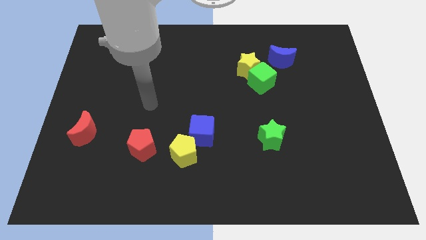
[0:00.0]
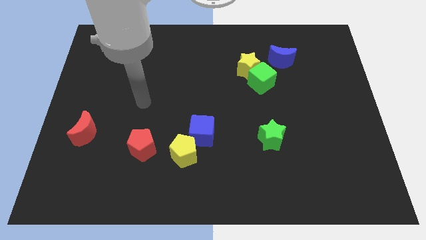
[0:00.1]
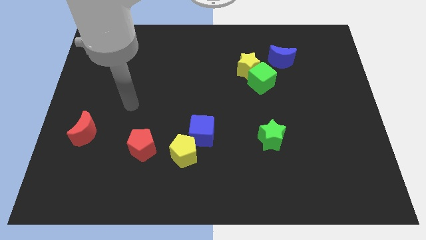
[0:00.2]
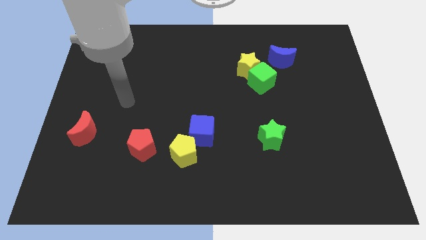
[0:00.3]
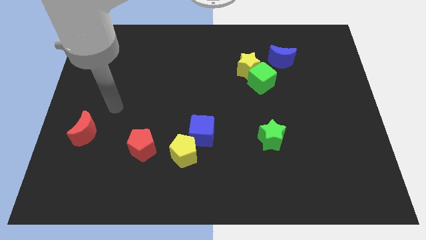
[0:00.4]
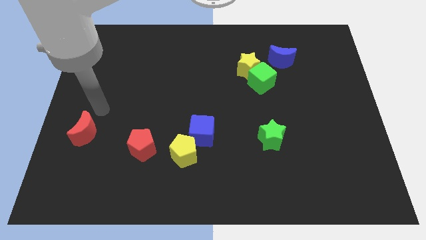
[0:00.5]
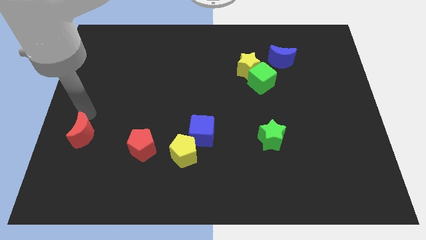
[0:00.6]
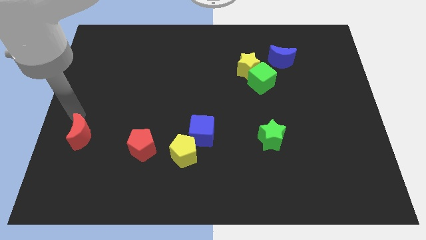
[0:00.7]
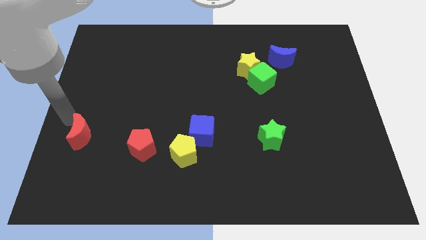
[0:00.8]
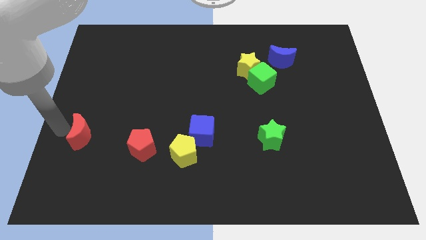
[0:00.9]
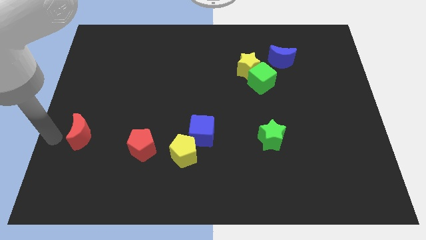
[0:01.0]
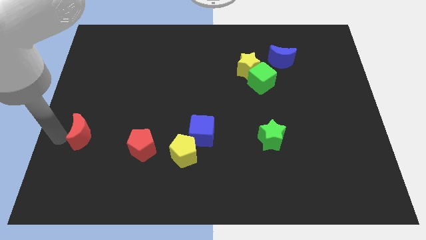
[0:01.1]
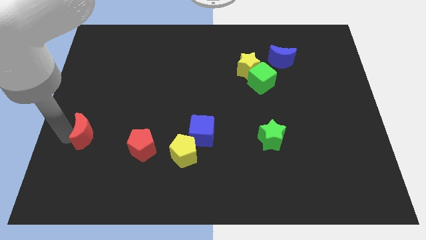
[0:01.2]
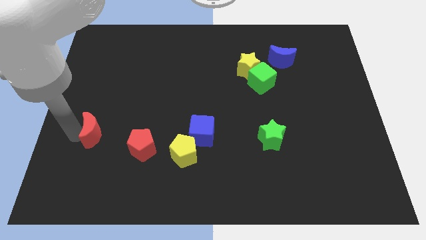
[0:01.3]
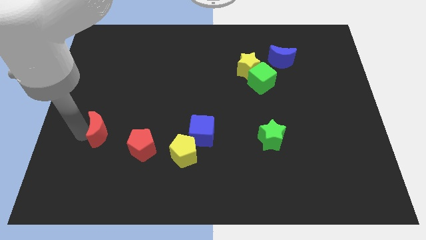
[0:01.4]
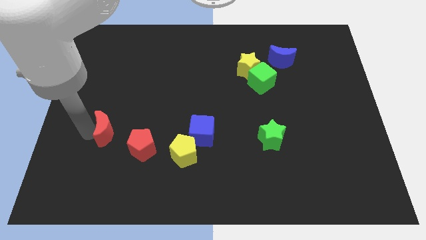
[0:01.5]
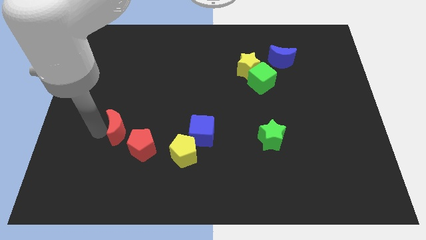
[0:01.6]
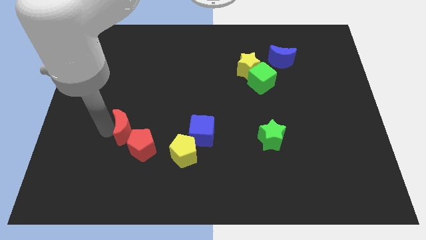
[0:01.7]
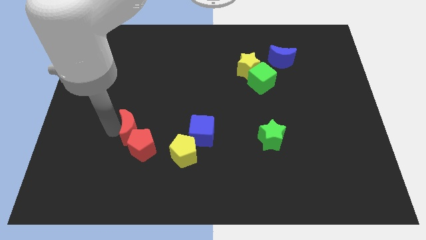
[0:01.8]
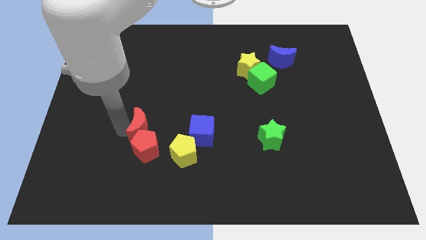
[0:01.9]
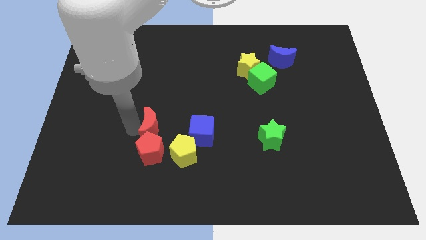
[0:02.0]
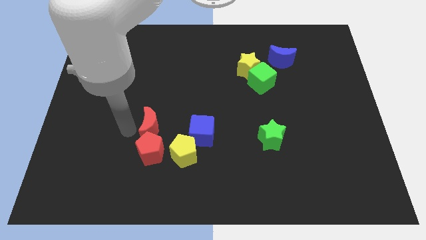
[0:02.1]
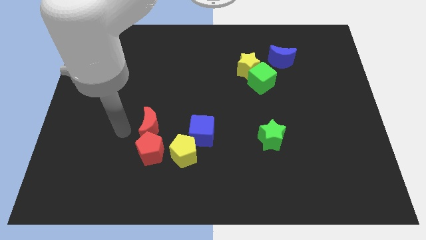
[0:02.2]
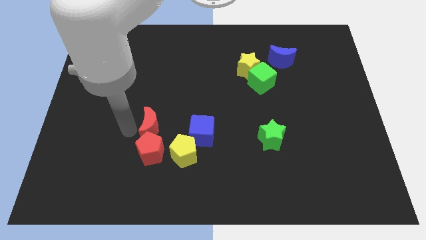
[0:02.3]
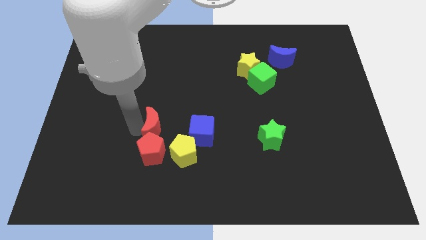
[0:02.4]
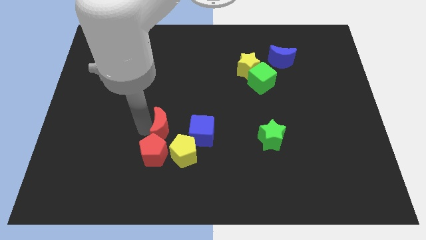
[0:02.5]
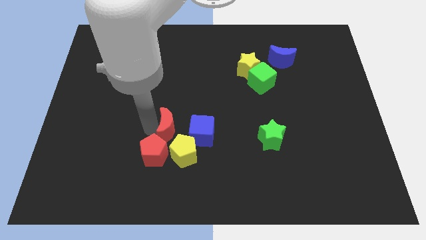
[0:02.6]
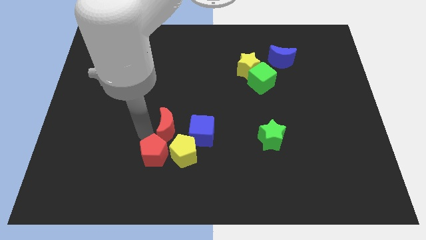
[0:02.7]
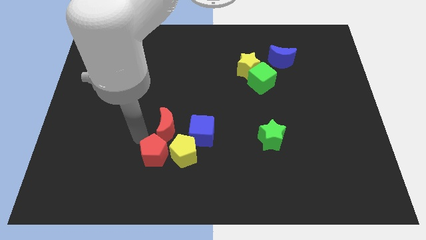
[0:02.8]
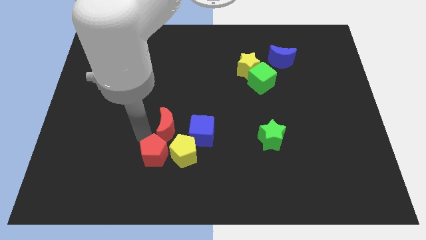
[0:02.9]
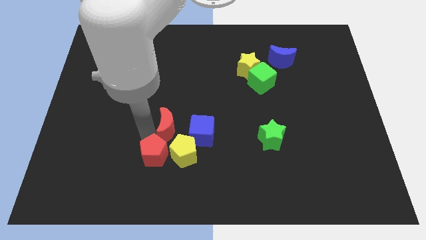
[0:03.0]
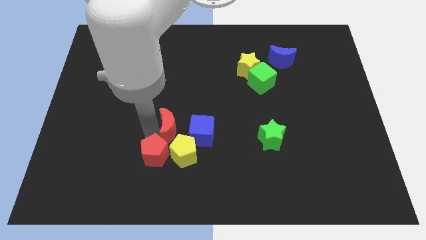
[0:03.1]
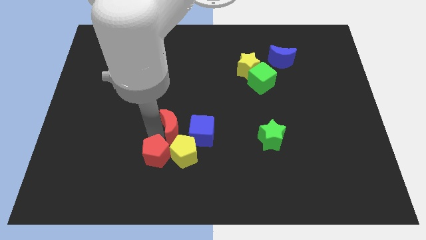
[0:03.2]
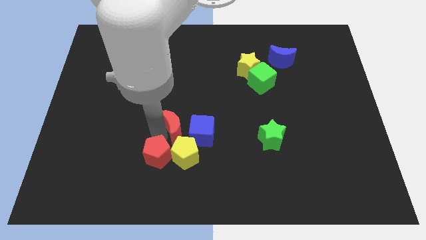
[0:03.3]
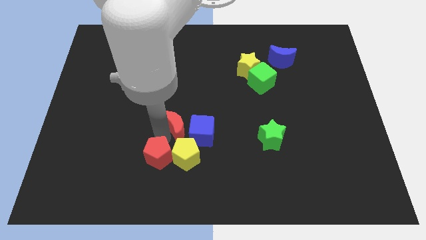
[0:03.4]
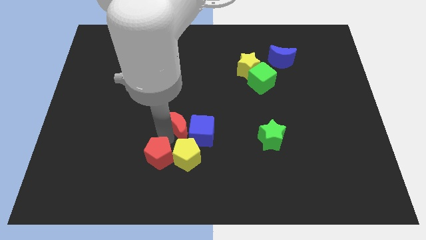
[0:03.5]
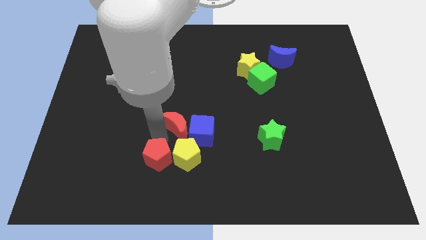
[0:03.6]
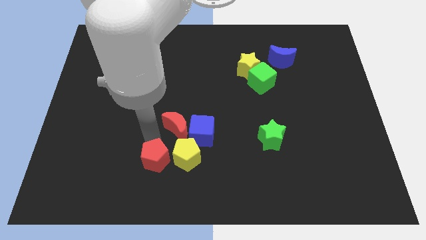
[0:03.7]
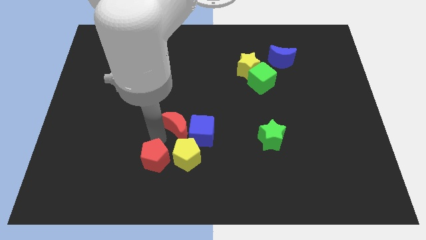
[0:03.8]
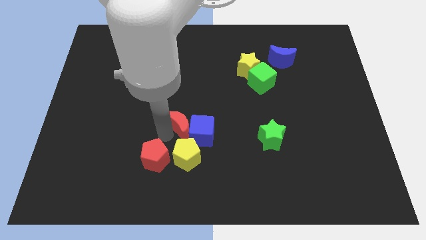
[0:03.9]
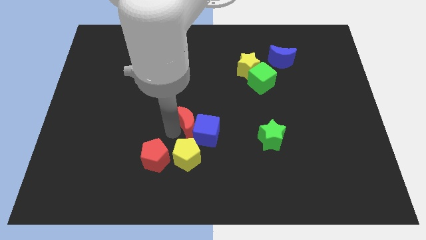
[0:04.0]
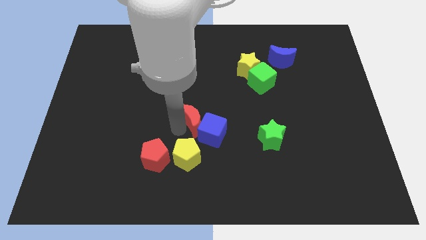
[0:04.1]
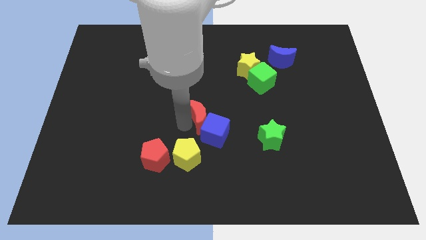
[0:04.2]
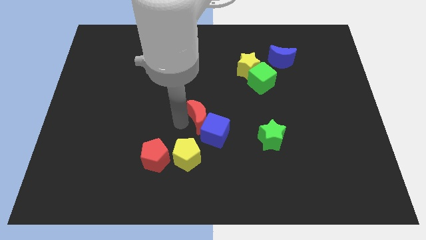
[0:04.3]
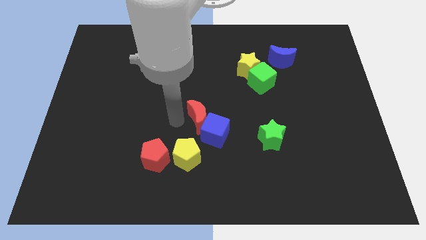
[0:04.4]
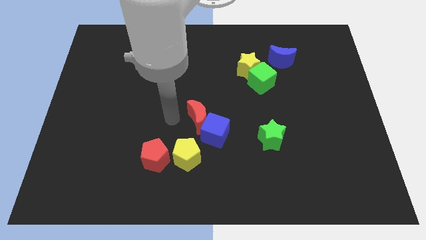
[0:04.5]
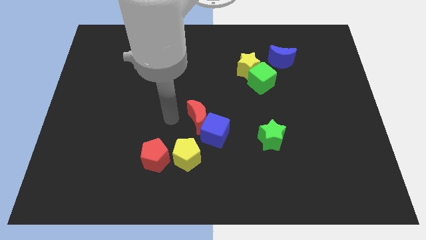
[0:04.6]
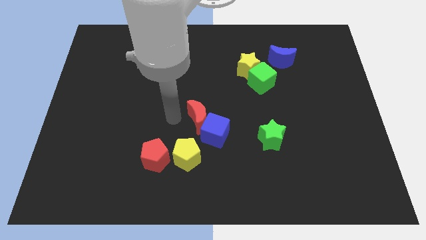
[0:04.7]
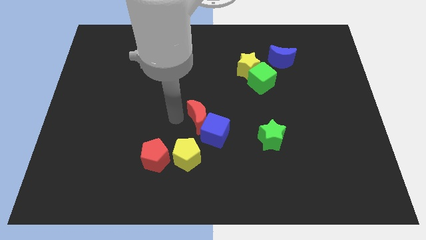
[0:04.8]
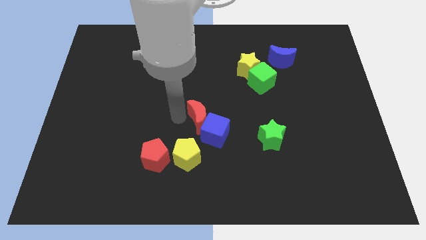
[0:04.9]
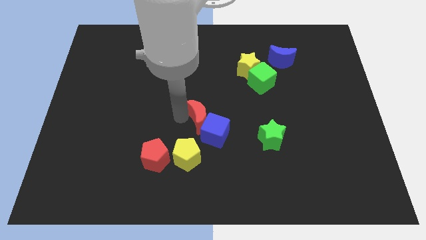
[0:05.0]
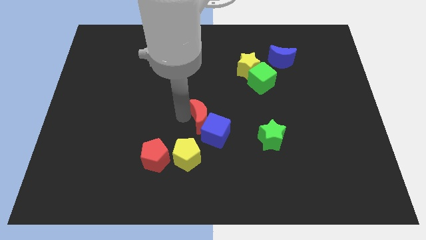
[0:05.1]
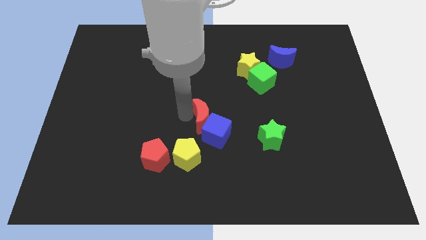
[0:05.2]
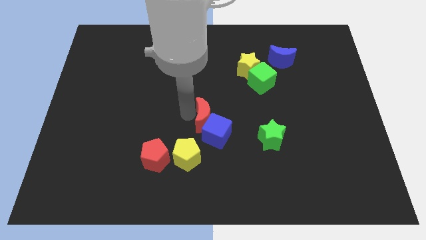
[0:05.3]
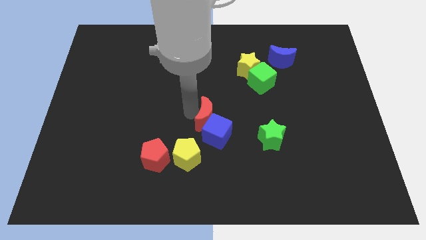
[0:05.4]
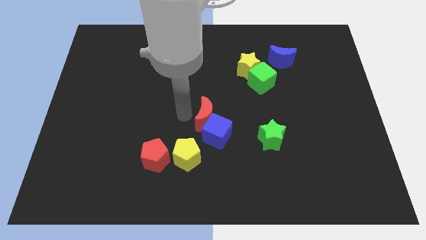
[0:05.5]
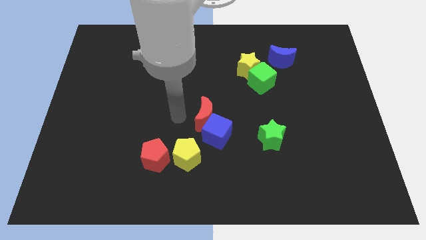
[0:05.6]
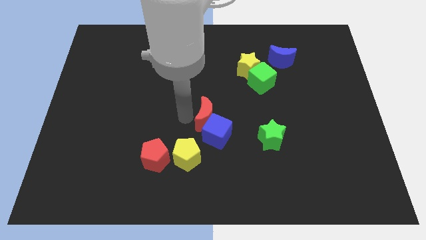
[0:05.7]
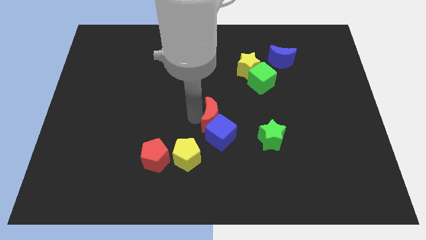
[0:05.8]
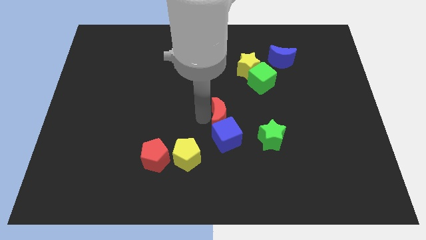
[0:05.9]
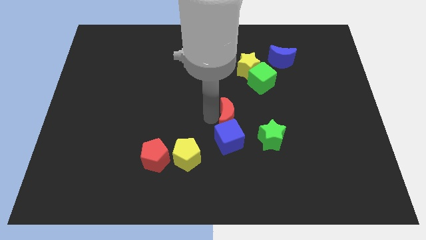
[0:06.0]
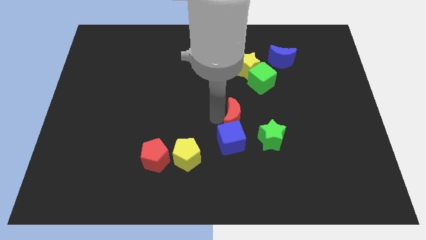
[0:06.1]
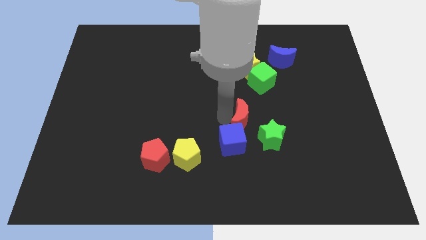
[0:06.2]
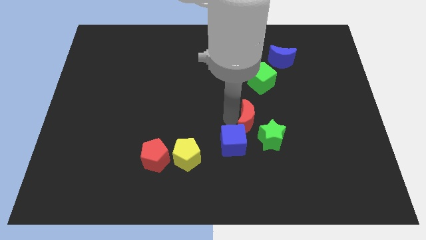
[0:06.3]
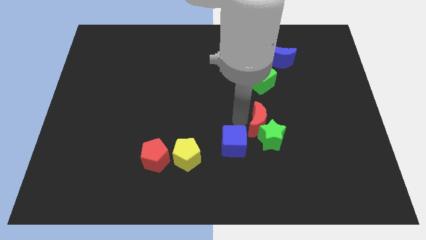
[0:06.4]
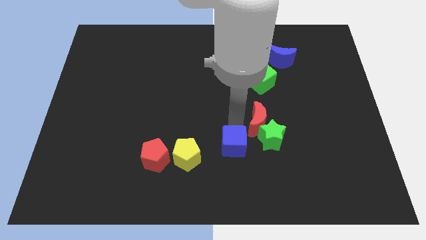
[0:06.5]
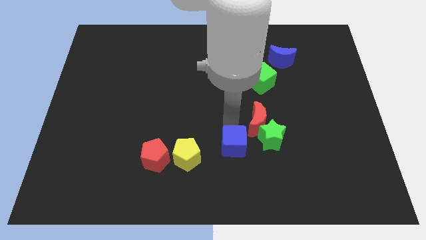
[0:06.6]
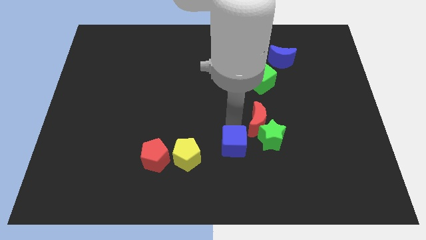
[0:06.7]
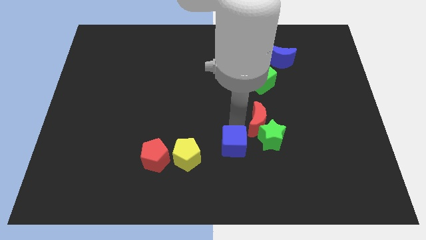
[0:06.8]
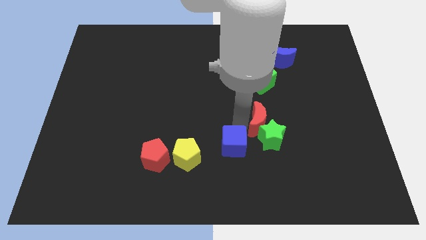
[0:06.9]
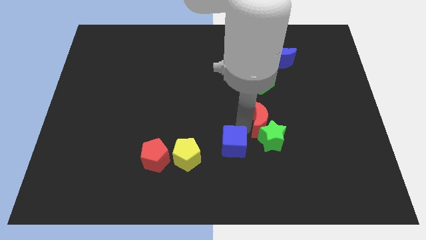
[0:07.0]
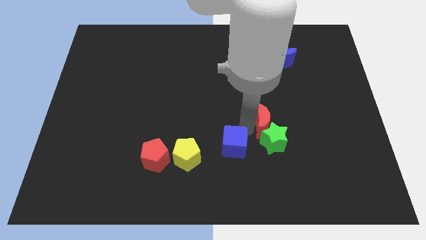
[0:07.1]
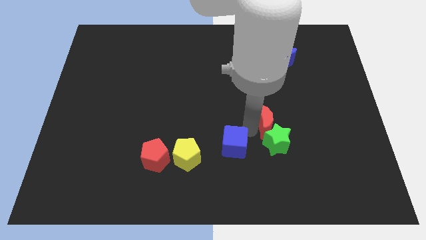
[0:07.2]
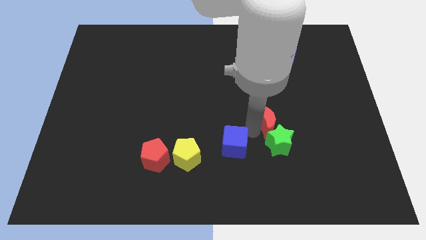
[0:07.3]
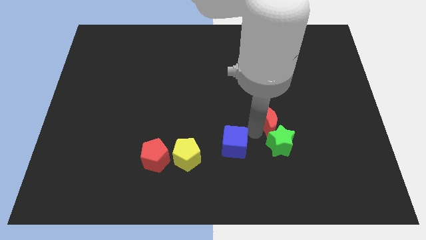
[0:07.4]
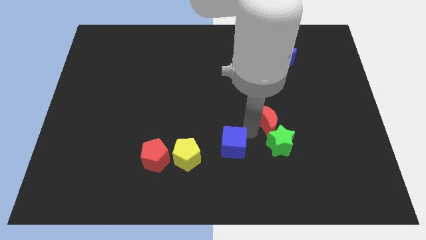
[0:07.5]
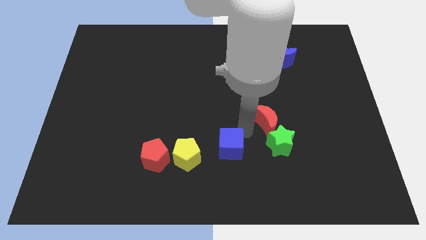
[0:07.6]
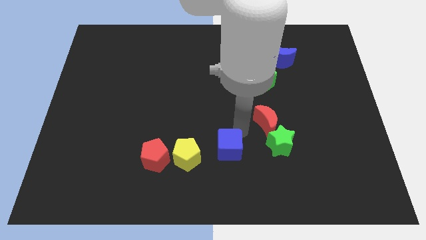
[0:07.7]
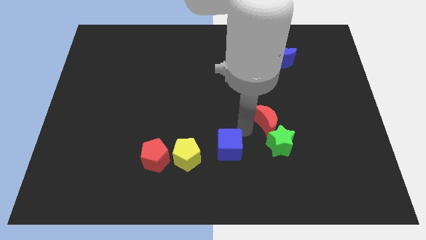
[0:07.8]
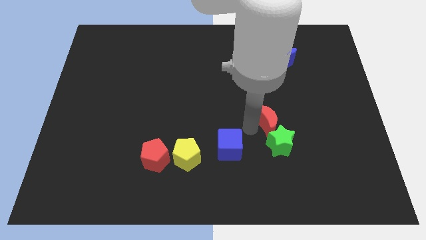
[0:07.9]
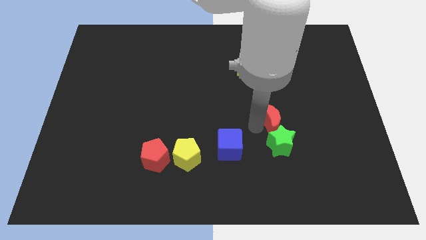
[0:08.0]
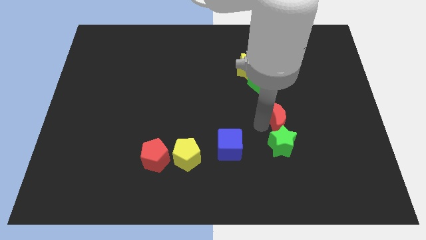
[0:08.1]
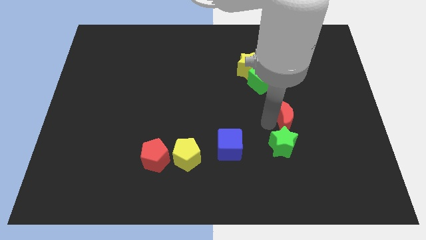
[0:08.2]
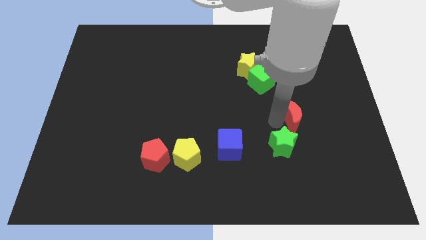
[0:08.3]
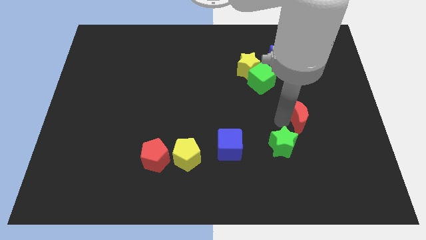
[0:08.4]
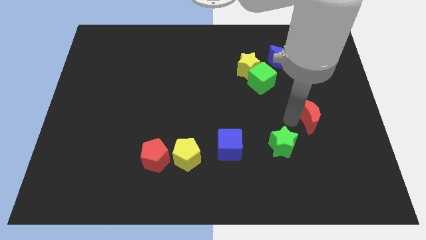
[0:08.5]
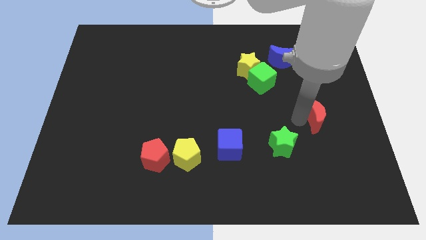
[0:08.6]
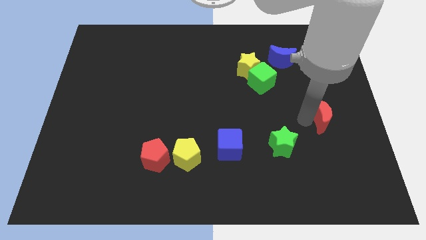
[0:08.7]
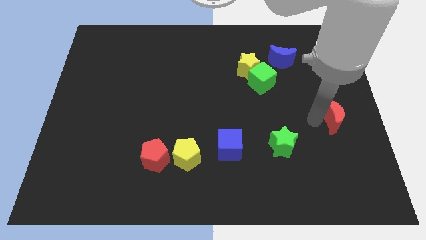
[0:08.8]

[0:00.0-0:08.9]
push the red moon to the right side of the board
